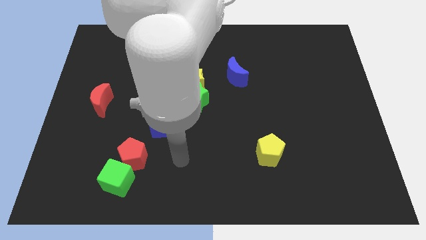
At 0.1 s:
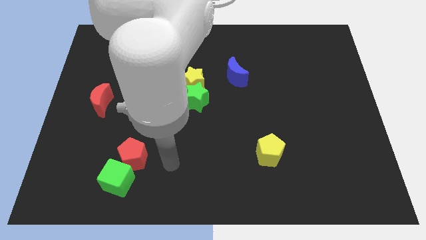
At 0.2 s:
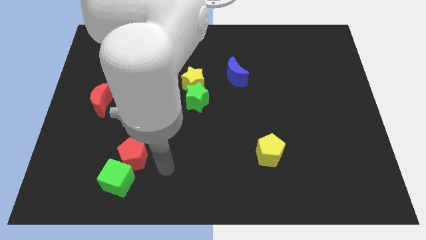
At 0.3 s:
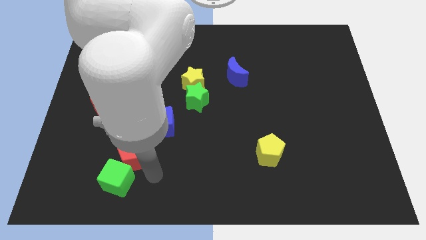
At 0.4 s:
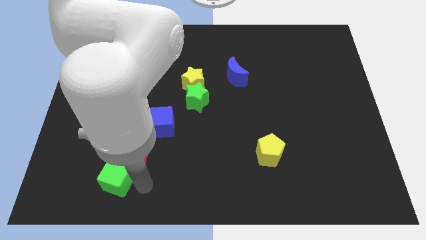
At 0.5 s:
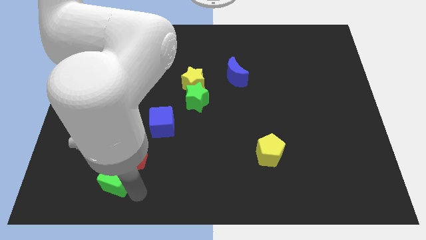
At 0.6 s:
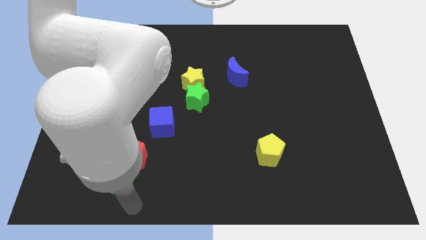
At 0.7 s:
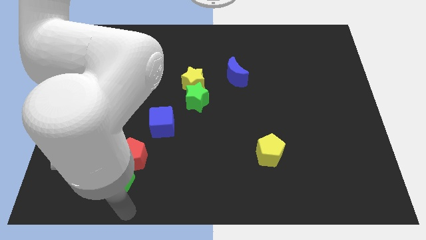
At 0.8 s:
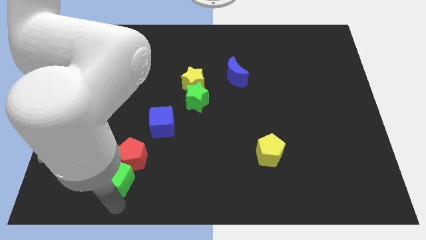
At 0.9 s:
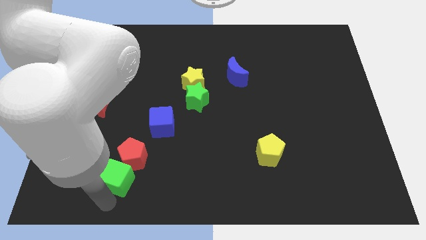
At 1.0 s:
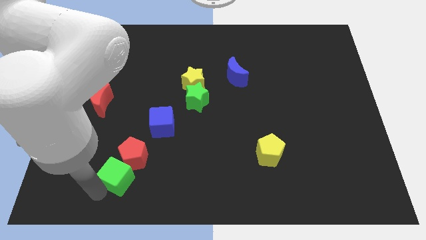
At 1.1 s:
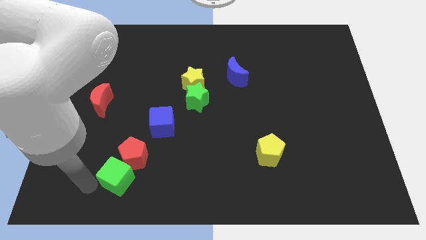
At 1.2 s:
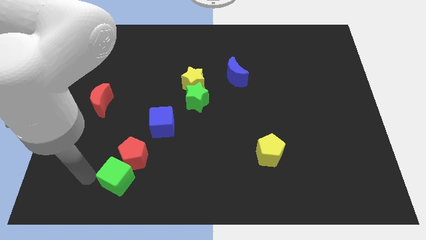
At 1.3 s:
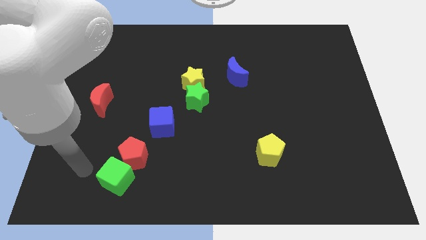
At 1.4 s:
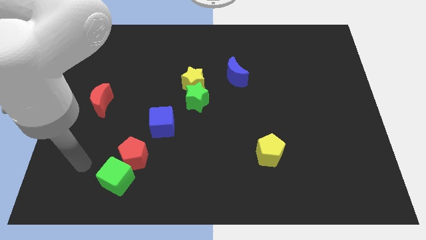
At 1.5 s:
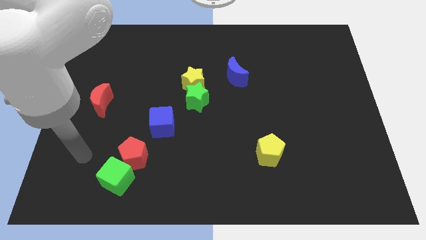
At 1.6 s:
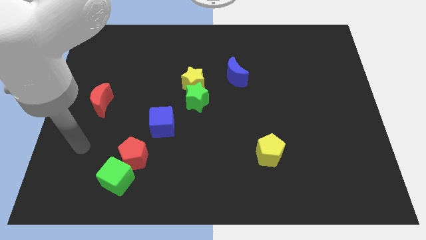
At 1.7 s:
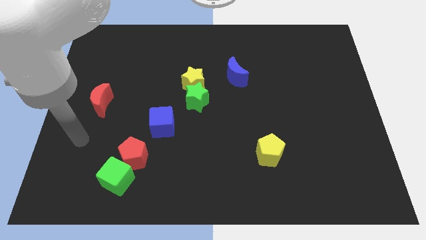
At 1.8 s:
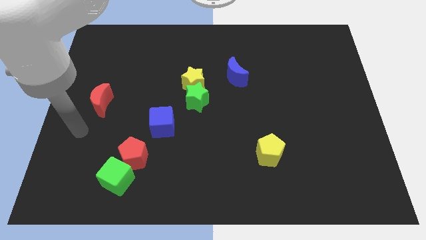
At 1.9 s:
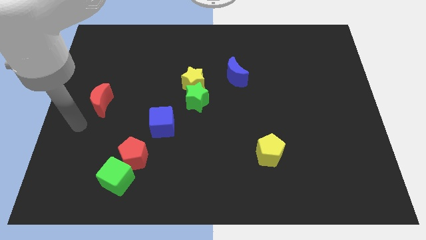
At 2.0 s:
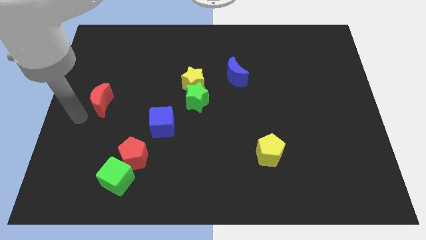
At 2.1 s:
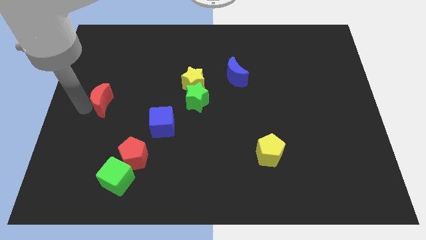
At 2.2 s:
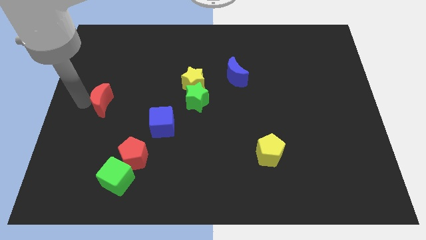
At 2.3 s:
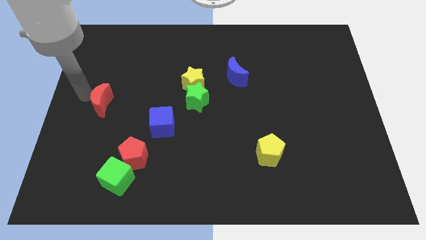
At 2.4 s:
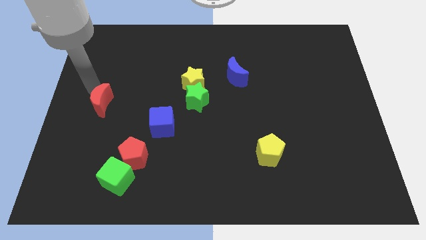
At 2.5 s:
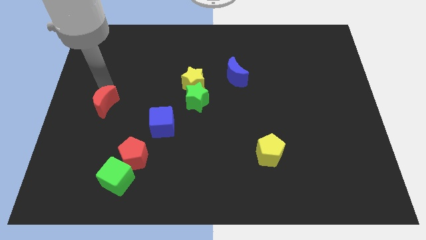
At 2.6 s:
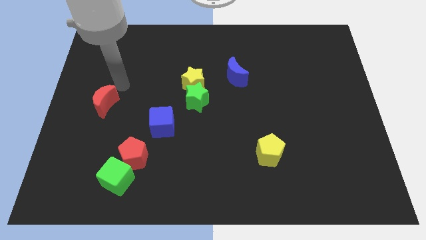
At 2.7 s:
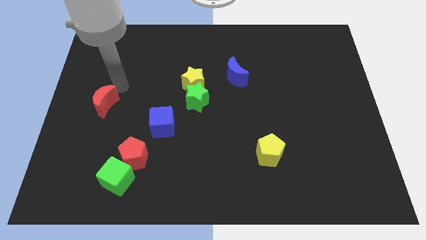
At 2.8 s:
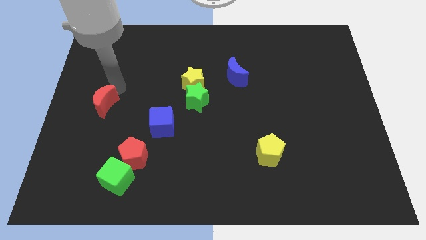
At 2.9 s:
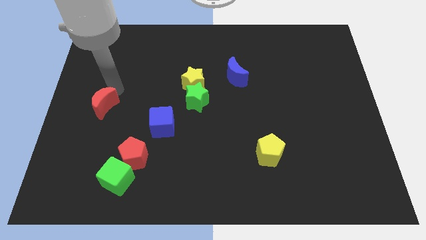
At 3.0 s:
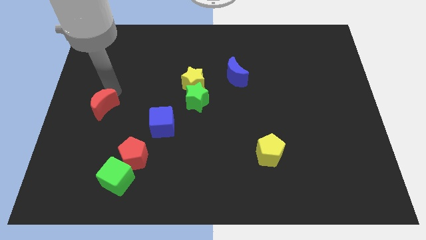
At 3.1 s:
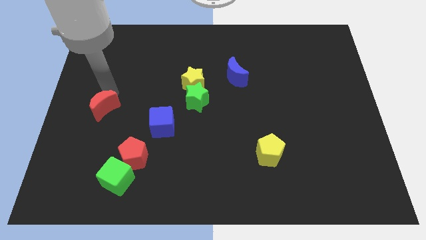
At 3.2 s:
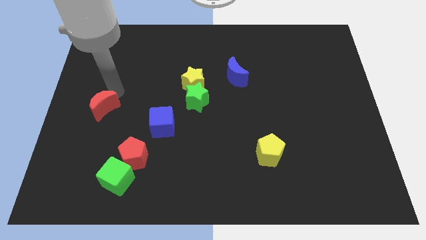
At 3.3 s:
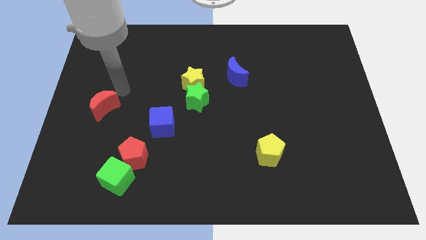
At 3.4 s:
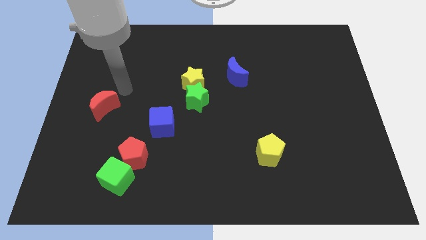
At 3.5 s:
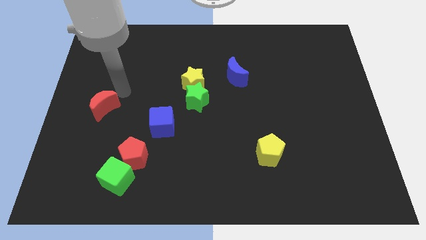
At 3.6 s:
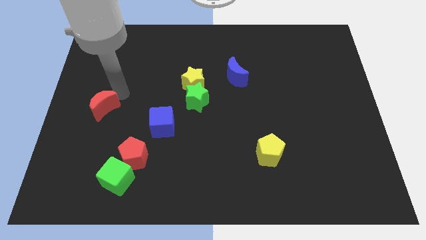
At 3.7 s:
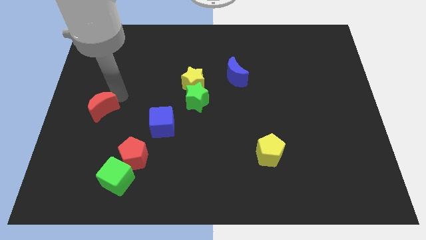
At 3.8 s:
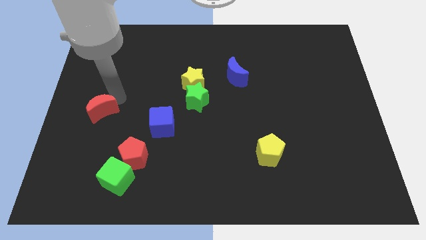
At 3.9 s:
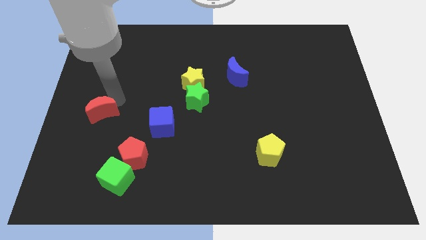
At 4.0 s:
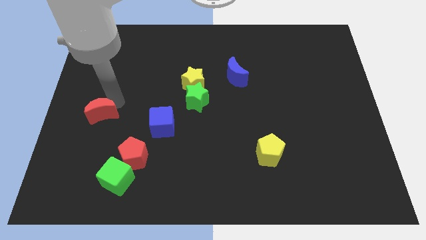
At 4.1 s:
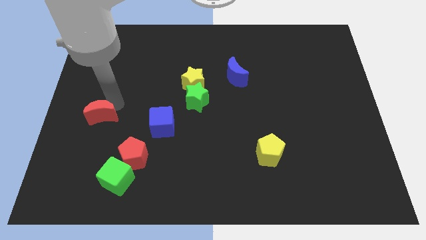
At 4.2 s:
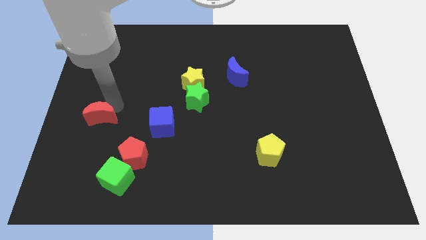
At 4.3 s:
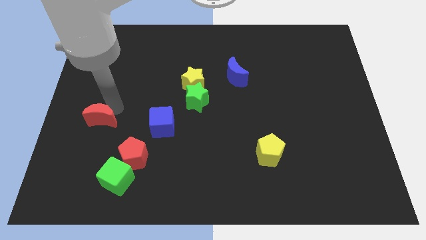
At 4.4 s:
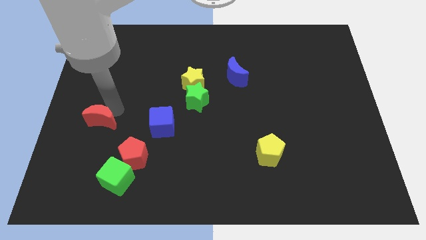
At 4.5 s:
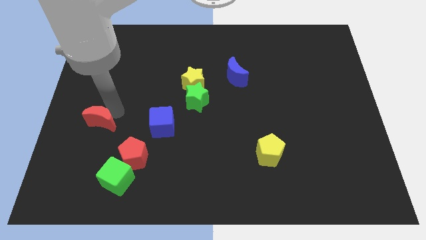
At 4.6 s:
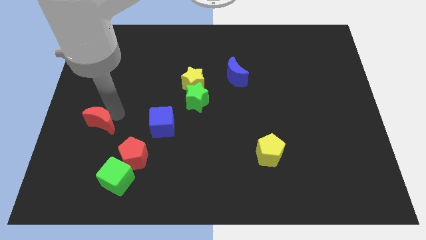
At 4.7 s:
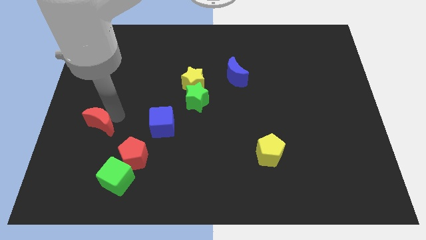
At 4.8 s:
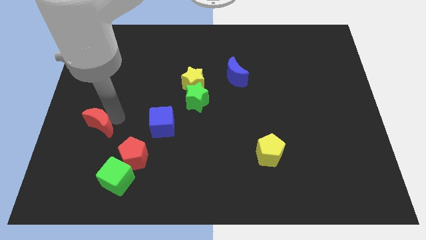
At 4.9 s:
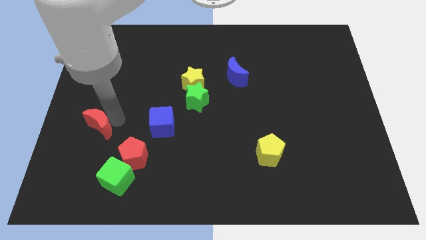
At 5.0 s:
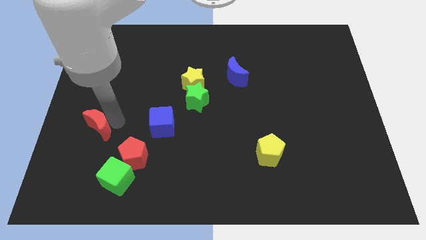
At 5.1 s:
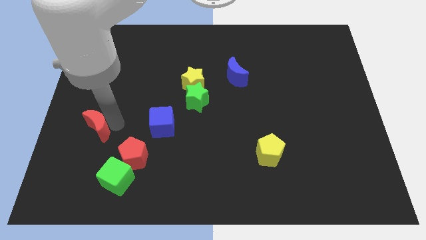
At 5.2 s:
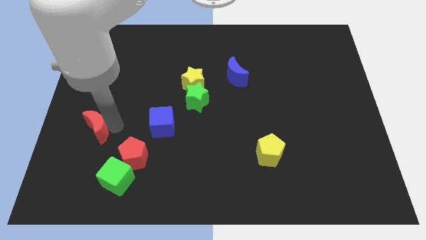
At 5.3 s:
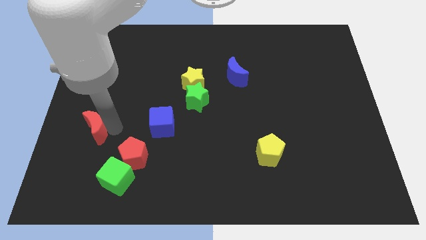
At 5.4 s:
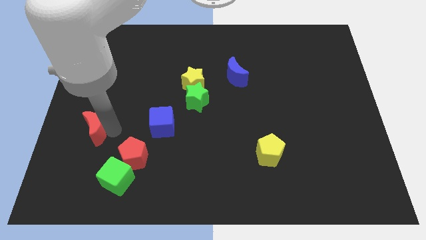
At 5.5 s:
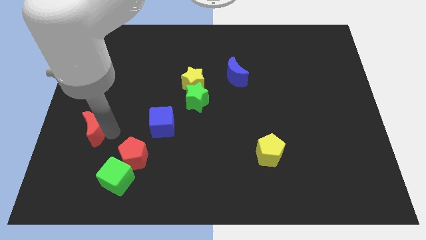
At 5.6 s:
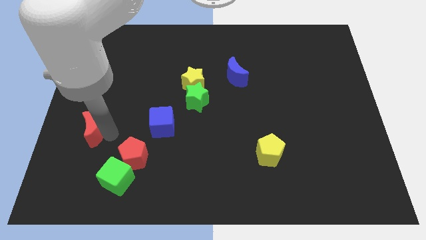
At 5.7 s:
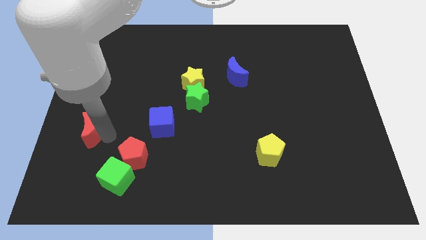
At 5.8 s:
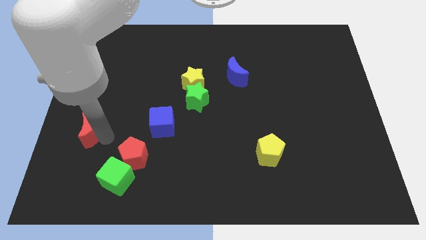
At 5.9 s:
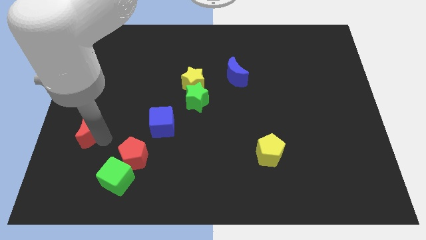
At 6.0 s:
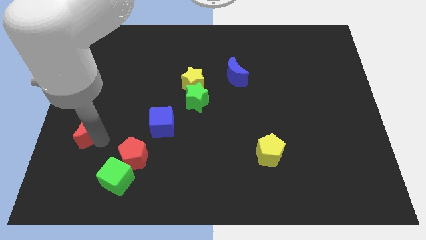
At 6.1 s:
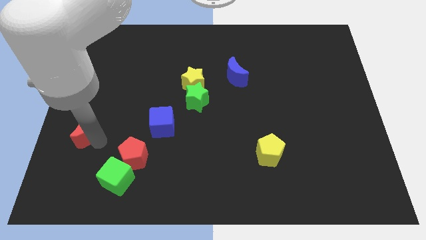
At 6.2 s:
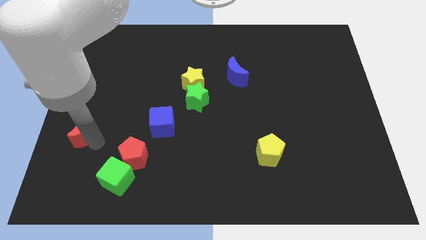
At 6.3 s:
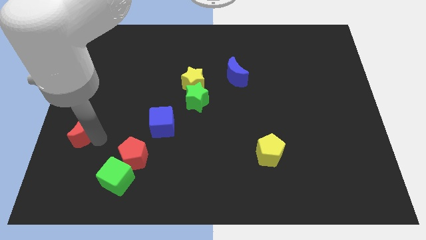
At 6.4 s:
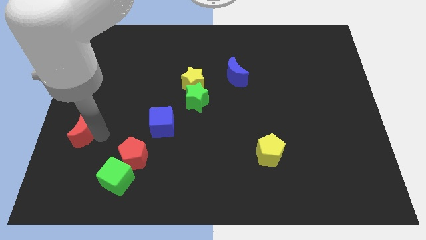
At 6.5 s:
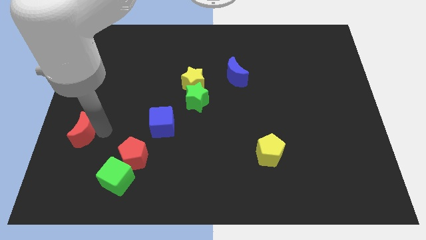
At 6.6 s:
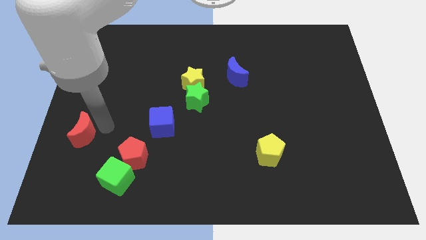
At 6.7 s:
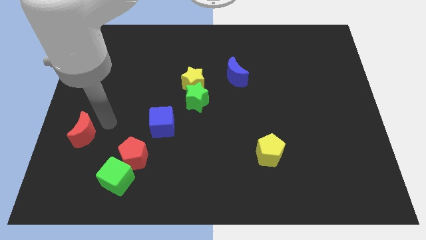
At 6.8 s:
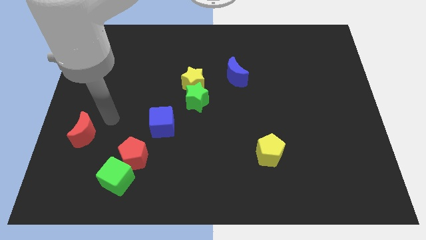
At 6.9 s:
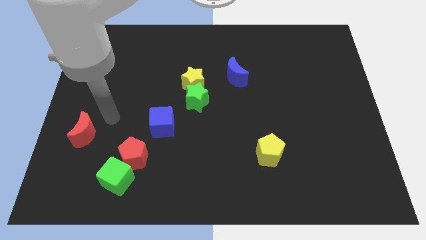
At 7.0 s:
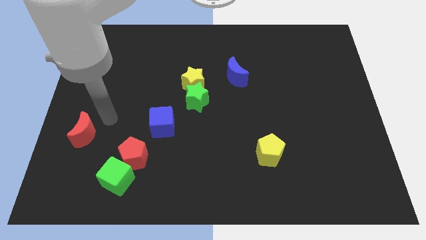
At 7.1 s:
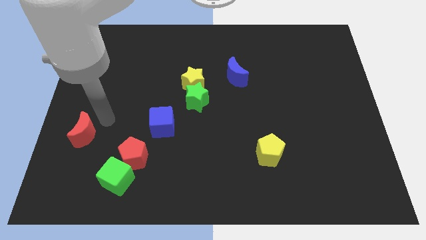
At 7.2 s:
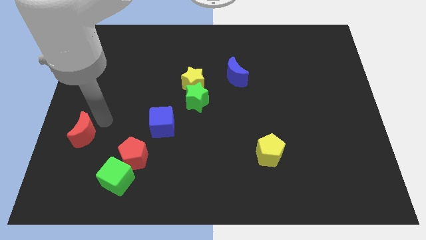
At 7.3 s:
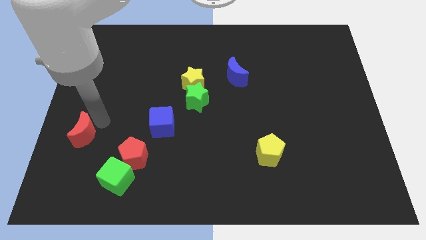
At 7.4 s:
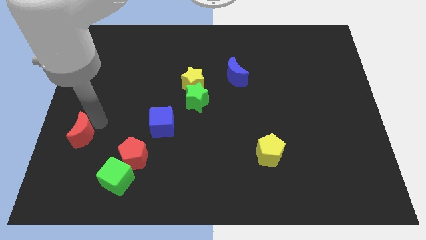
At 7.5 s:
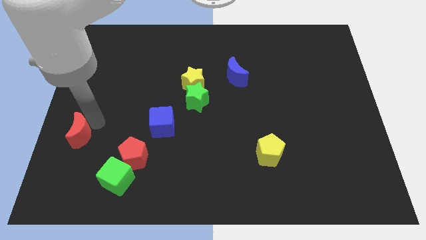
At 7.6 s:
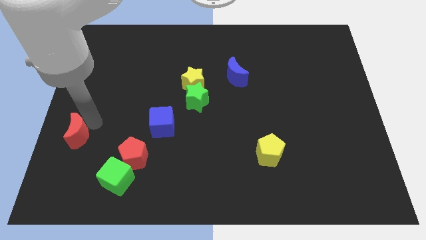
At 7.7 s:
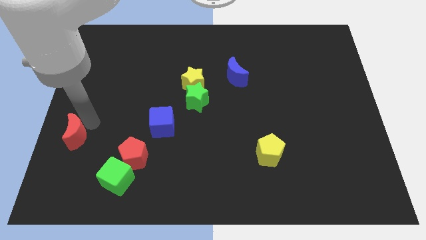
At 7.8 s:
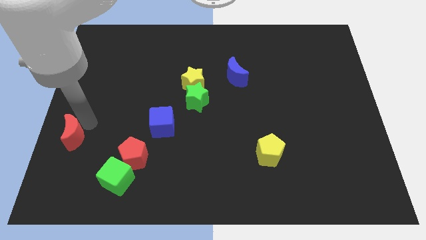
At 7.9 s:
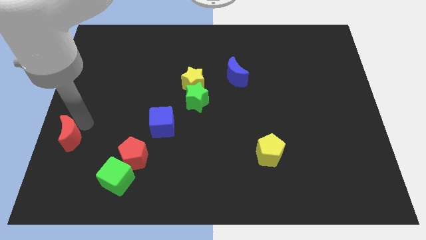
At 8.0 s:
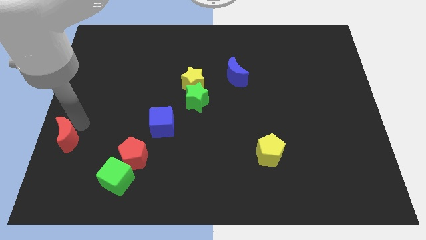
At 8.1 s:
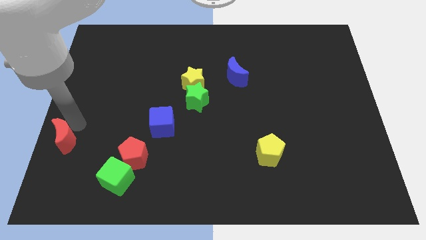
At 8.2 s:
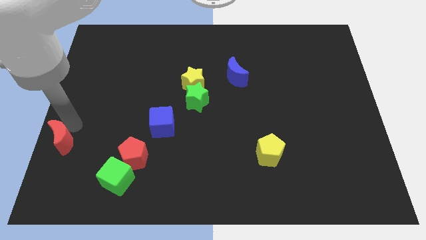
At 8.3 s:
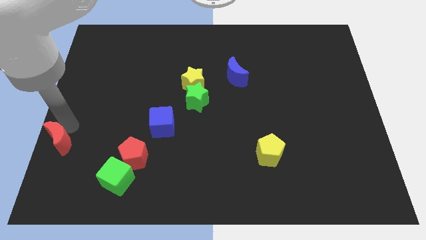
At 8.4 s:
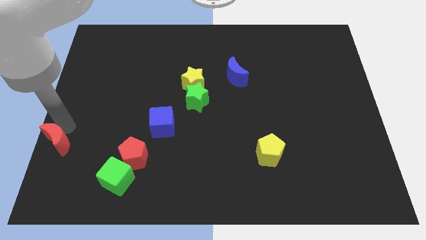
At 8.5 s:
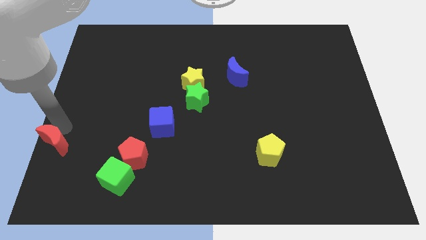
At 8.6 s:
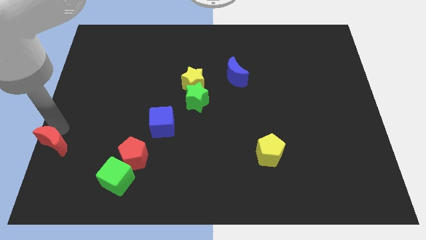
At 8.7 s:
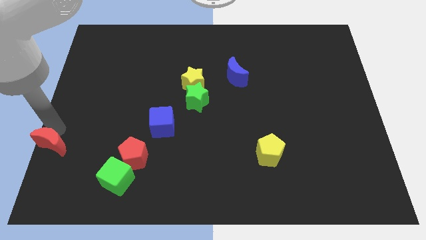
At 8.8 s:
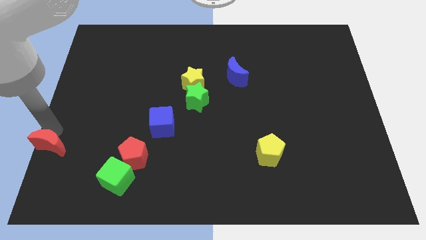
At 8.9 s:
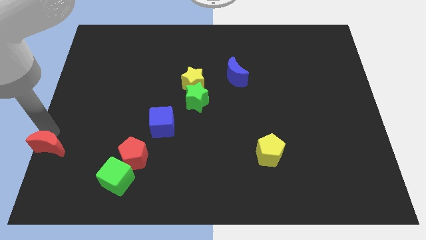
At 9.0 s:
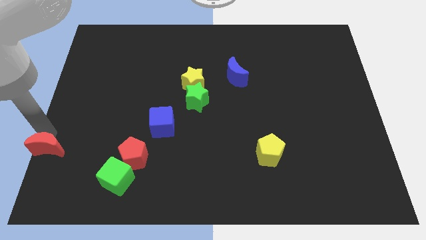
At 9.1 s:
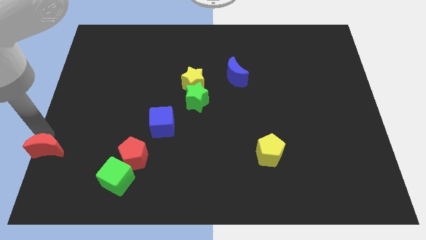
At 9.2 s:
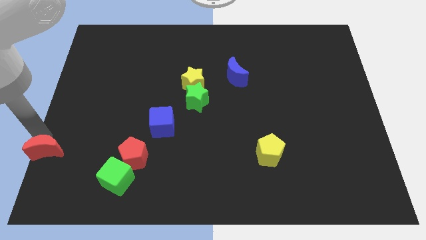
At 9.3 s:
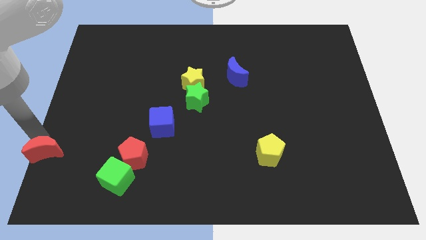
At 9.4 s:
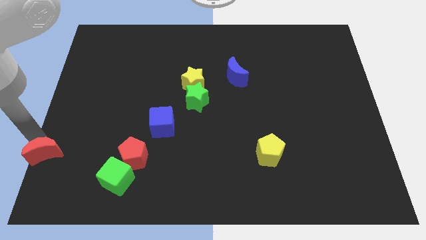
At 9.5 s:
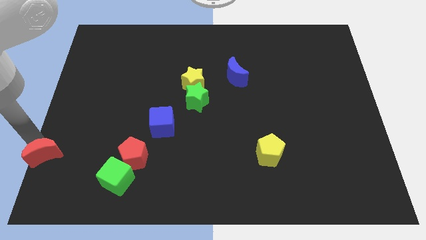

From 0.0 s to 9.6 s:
slide the red moon to the lower left corner
